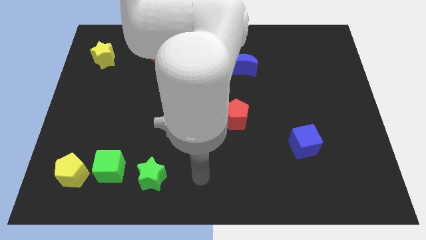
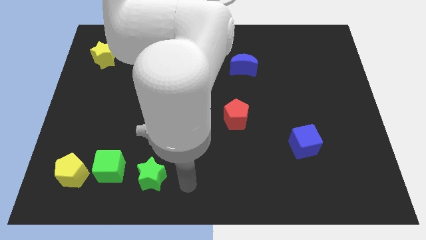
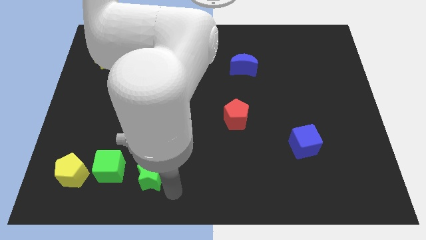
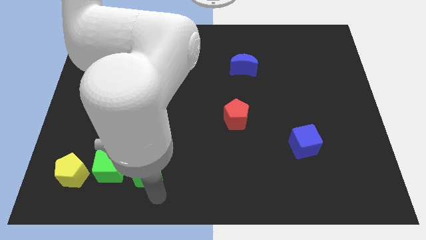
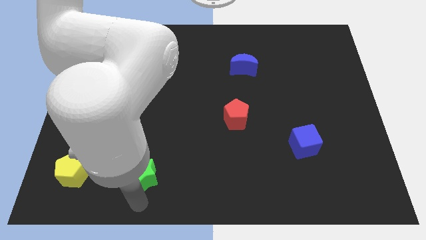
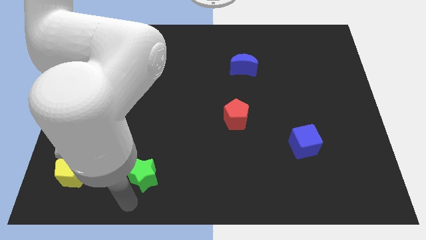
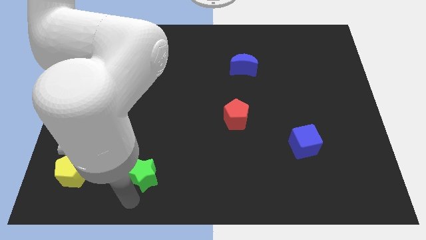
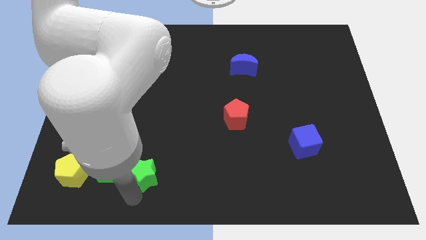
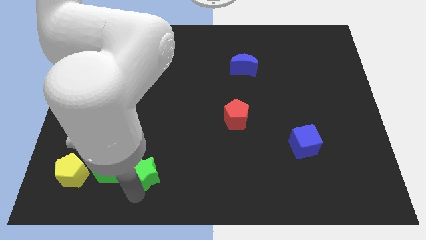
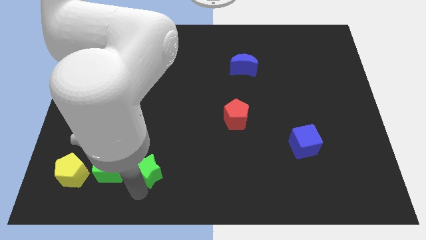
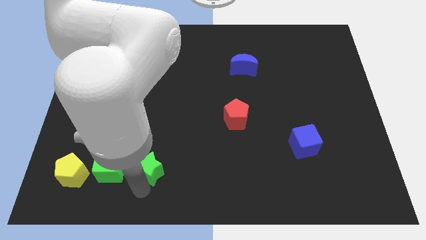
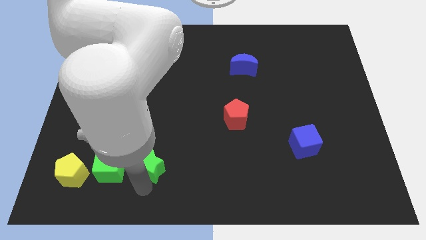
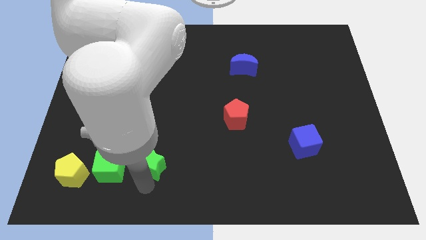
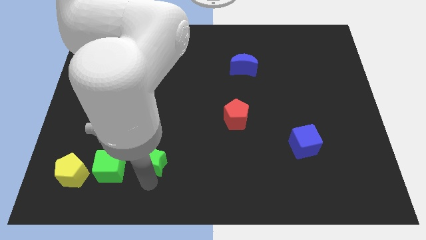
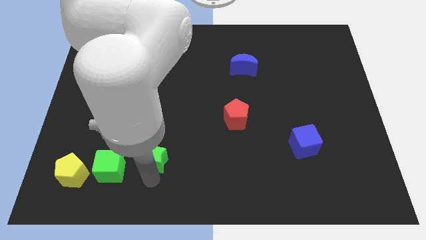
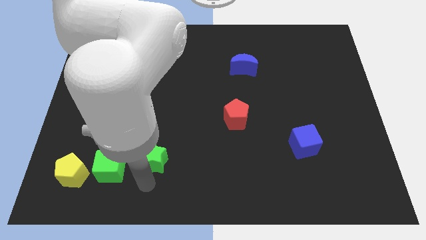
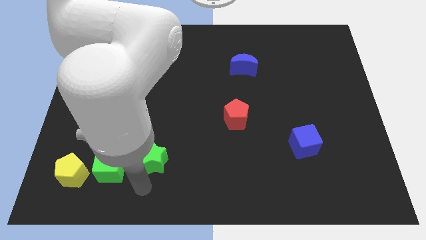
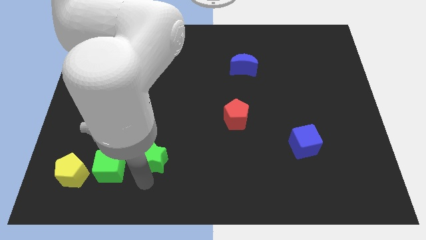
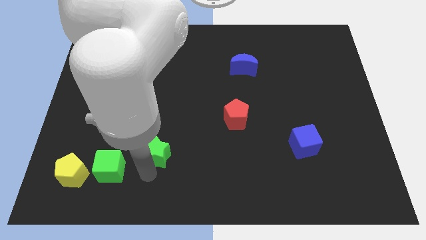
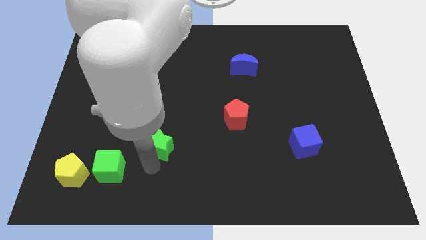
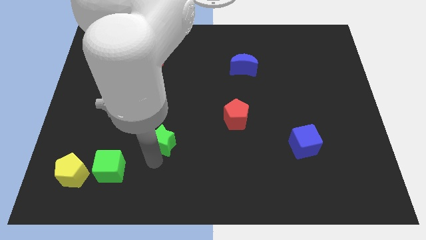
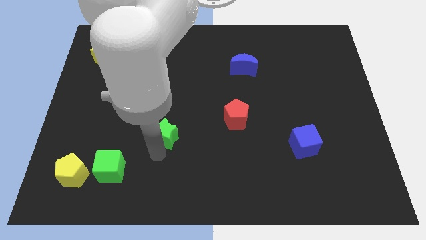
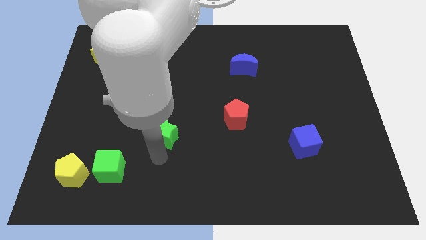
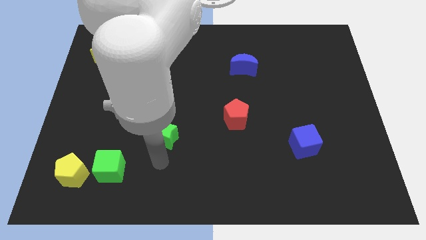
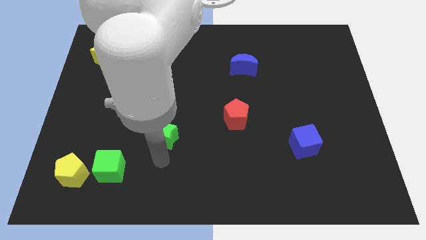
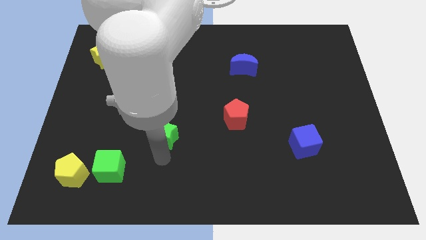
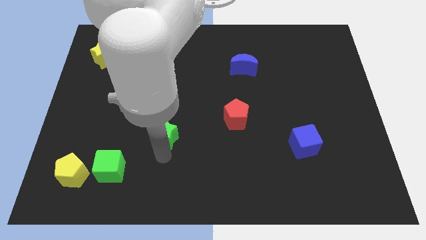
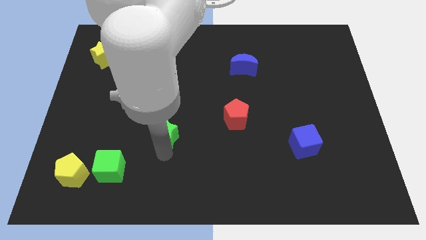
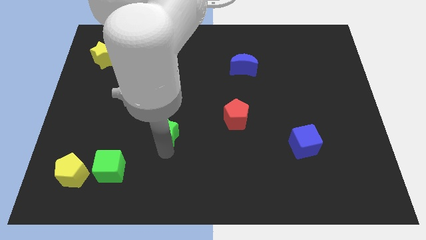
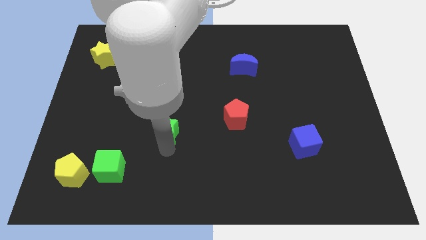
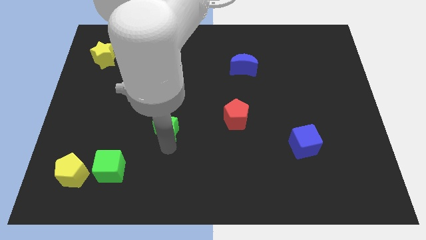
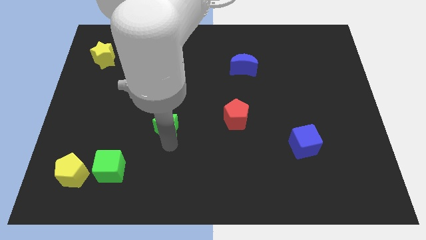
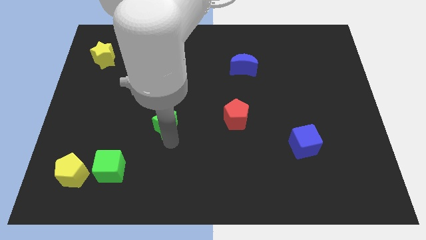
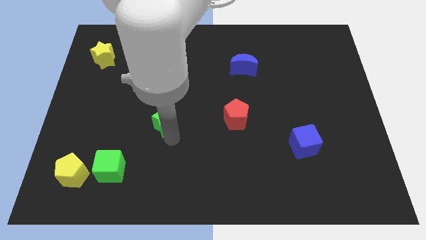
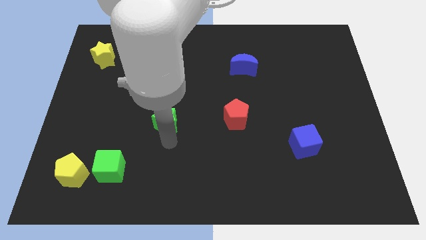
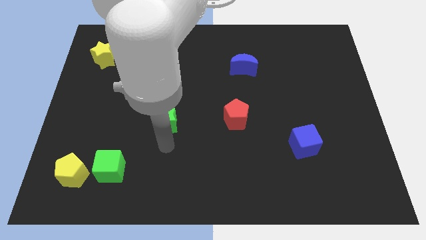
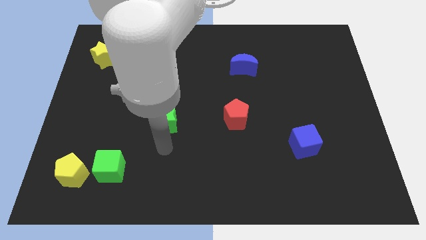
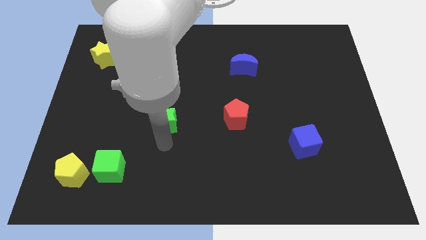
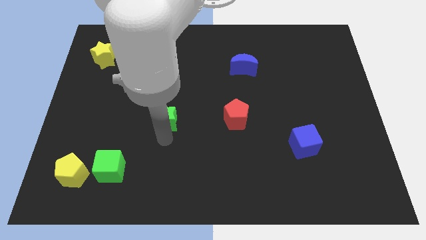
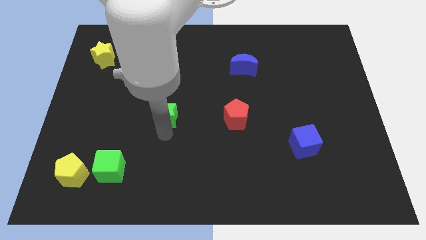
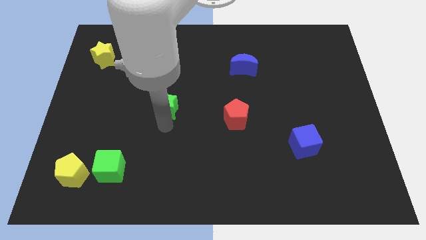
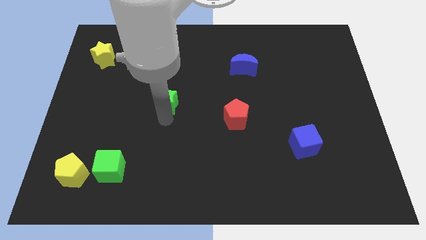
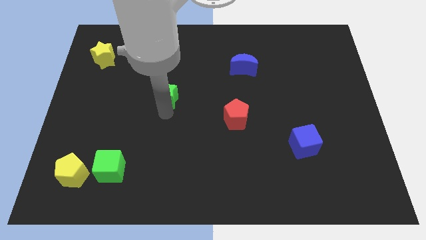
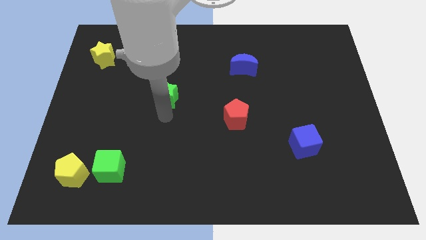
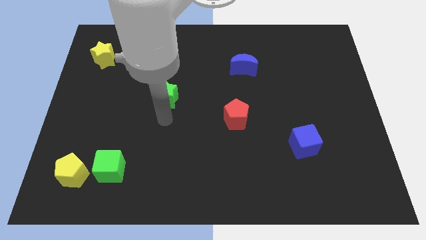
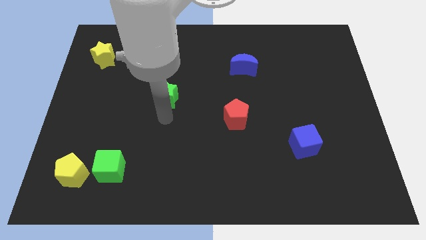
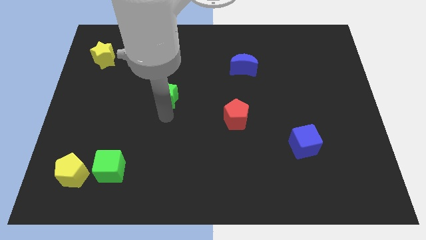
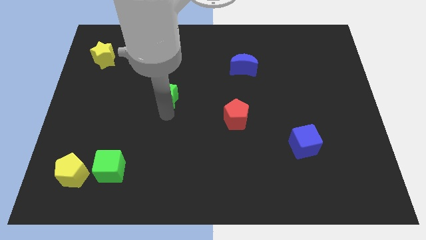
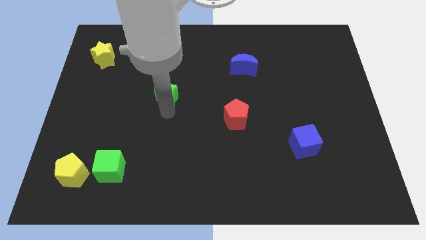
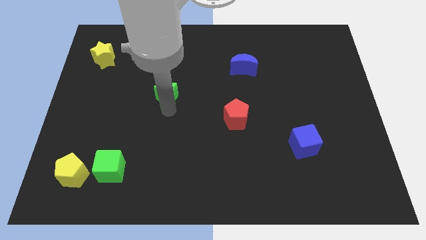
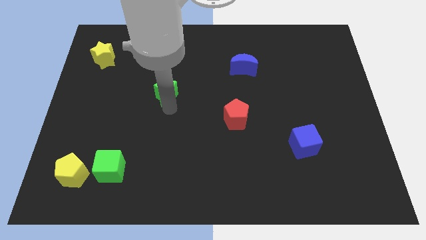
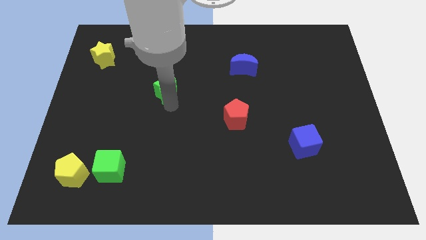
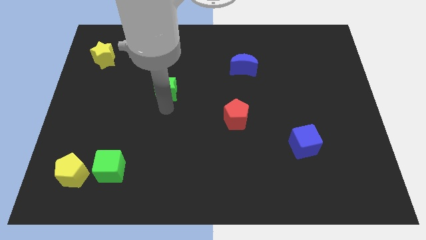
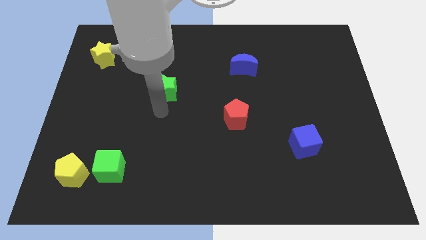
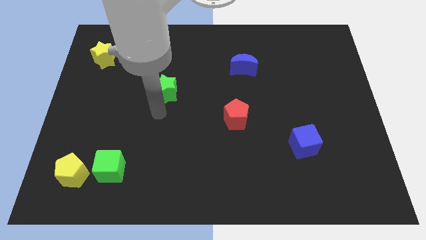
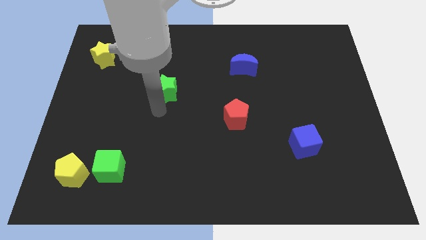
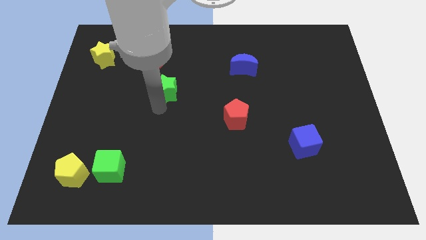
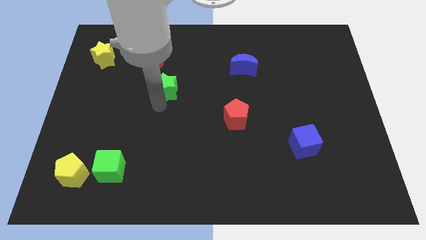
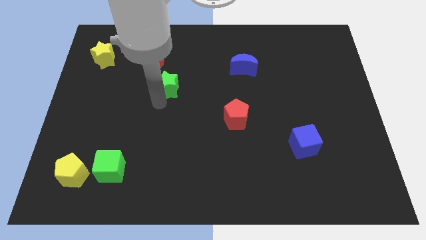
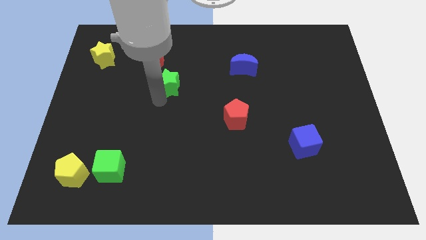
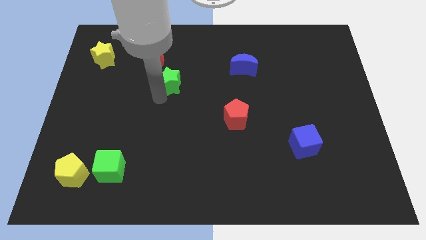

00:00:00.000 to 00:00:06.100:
push the green star diagonally down and to the right of the red moon
